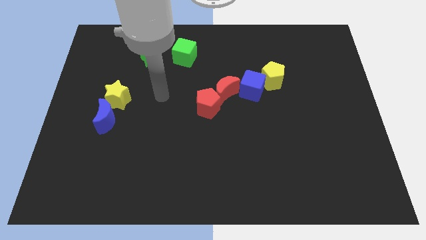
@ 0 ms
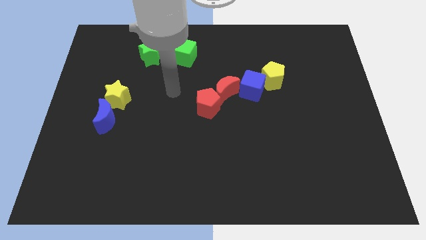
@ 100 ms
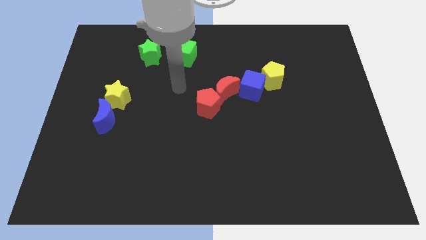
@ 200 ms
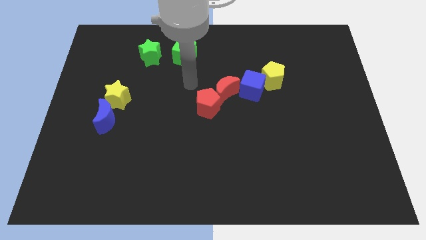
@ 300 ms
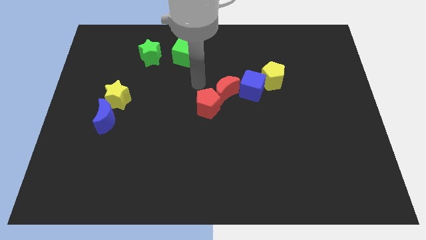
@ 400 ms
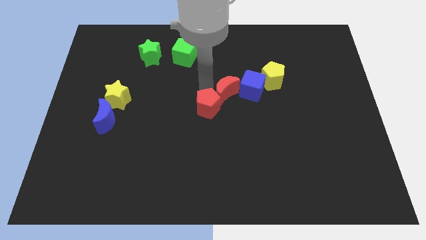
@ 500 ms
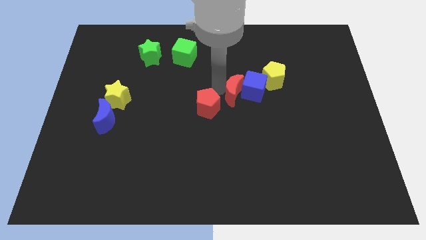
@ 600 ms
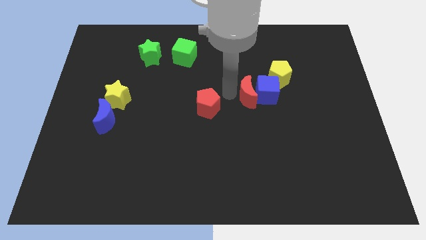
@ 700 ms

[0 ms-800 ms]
pull the red pentagon apart from the red moon

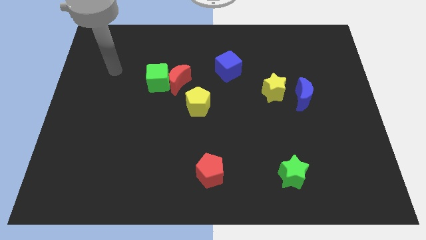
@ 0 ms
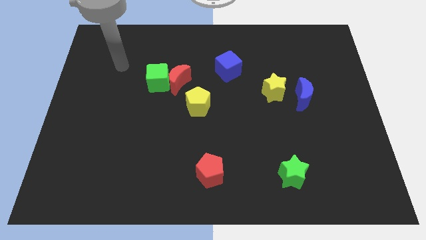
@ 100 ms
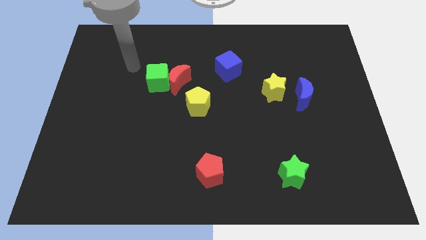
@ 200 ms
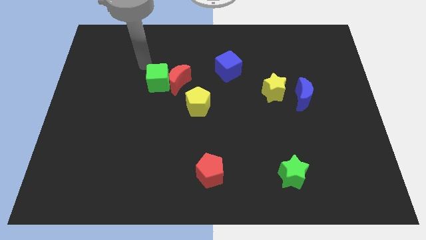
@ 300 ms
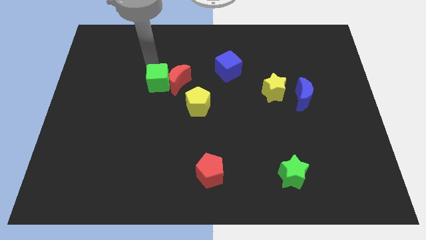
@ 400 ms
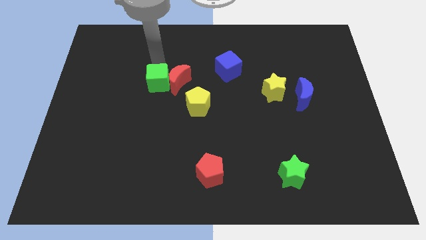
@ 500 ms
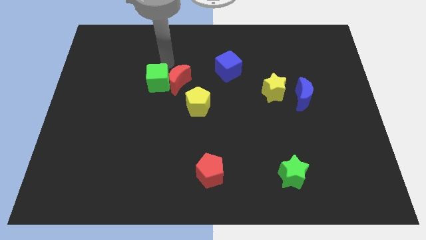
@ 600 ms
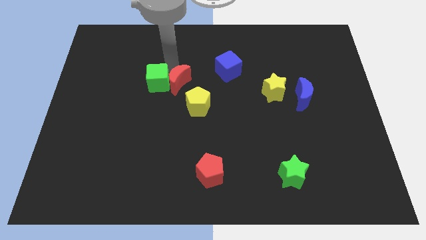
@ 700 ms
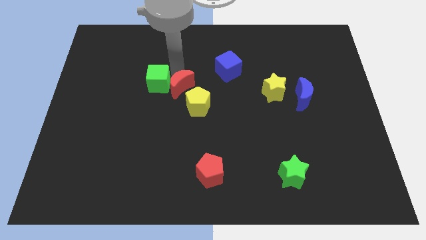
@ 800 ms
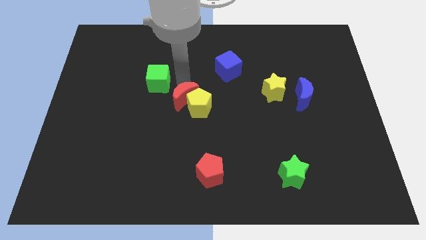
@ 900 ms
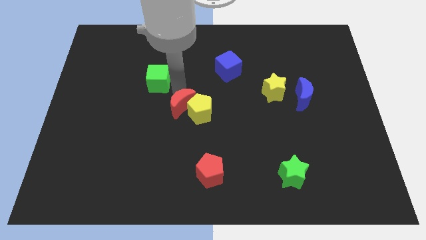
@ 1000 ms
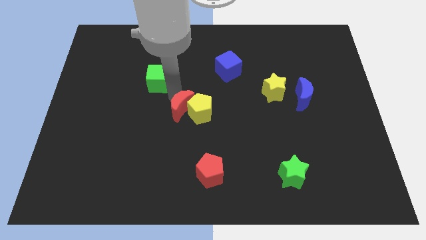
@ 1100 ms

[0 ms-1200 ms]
pull the green cube apart from the red moon

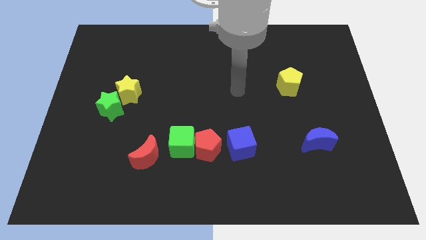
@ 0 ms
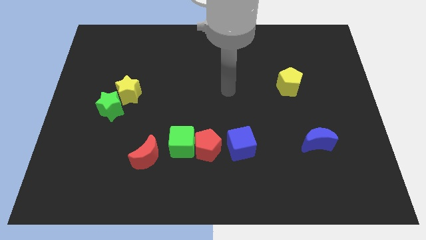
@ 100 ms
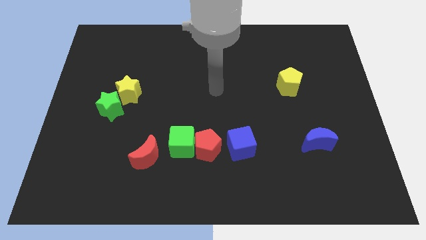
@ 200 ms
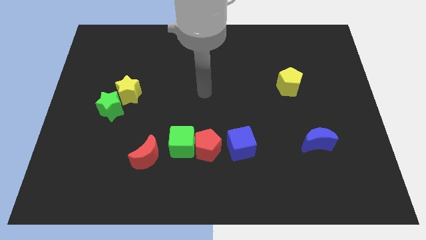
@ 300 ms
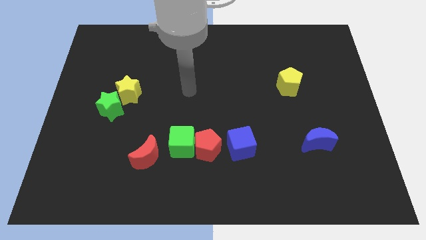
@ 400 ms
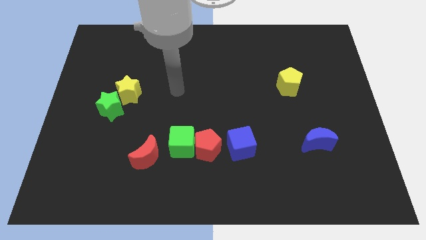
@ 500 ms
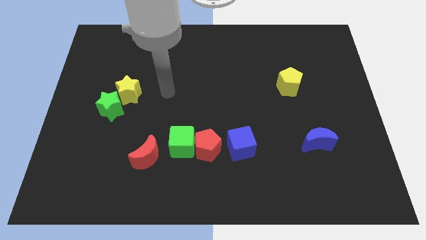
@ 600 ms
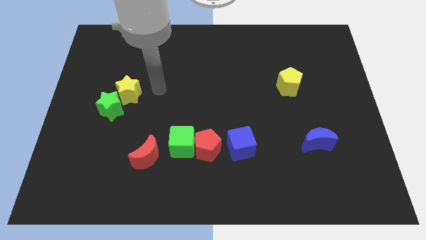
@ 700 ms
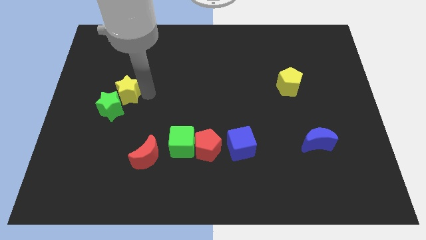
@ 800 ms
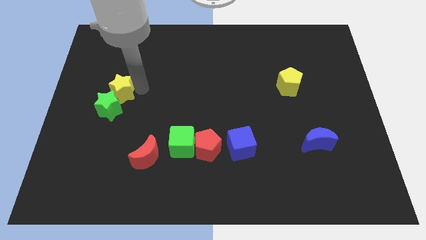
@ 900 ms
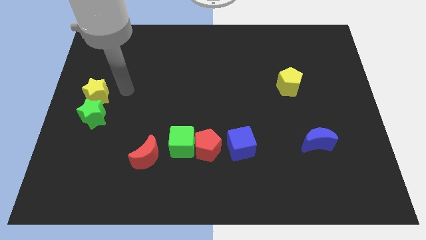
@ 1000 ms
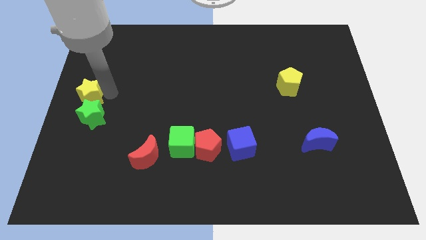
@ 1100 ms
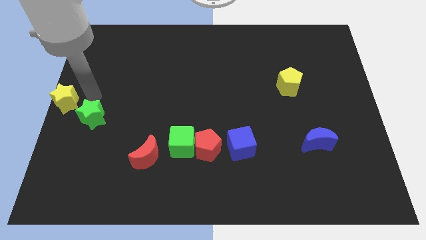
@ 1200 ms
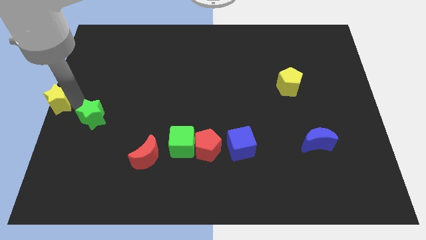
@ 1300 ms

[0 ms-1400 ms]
separate the green star from the yellow star

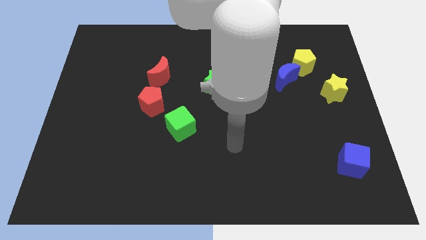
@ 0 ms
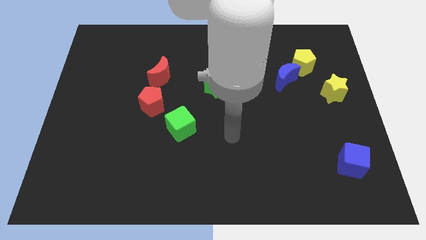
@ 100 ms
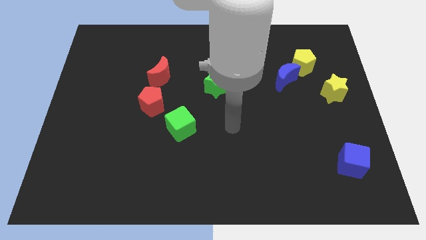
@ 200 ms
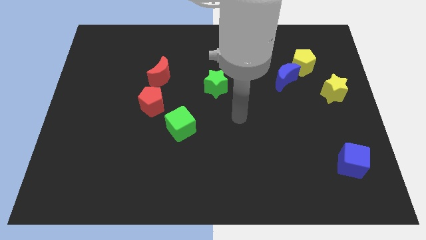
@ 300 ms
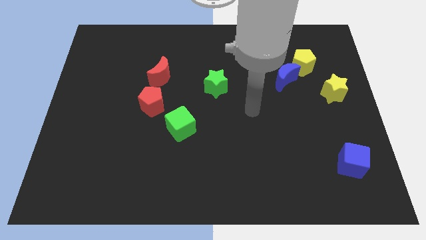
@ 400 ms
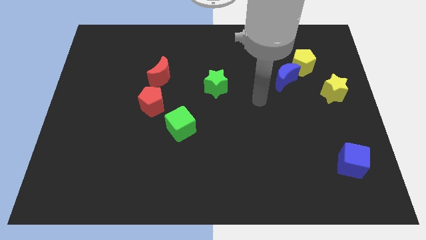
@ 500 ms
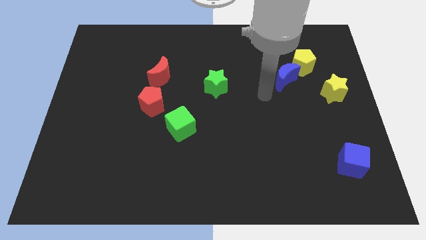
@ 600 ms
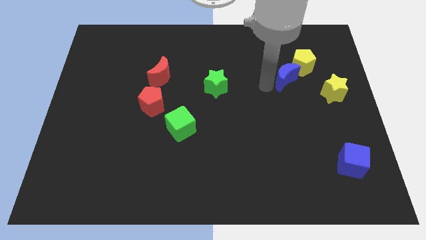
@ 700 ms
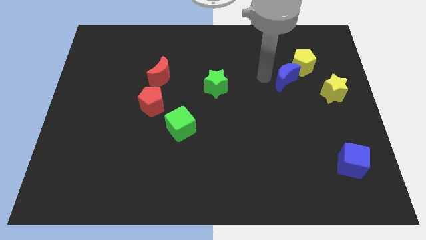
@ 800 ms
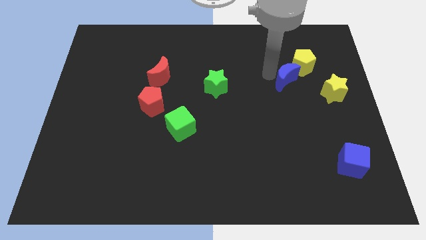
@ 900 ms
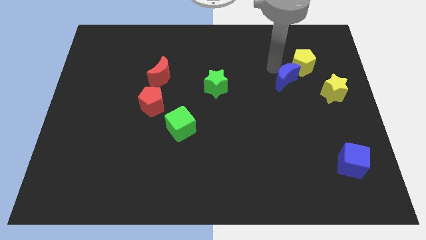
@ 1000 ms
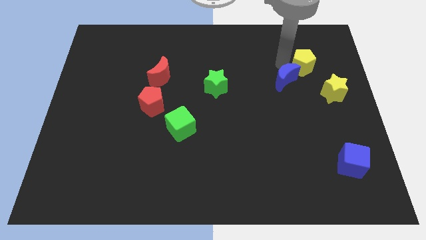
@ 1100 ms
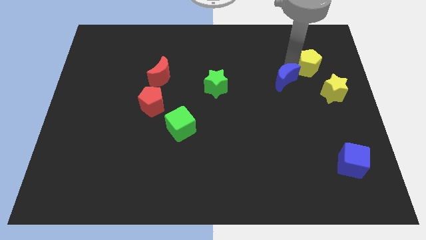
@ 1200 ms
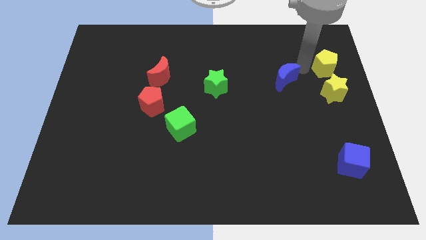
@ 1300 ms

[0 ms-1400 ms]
separate the blue moon from the yellow pentagon

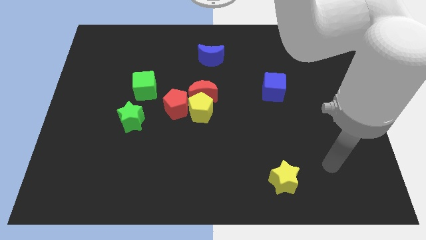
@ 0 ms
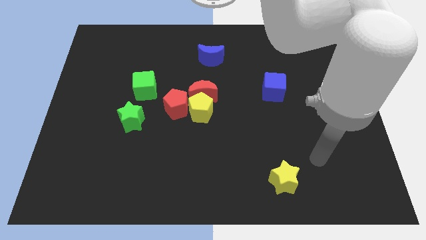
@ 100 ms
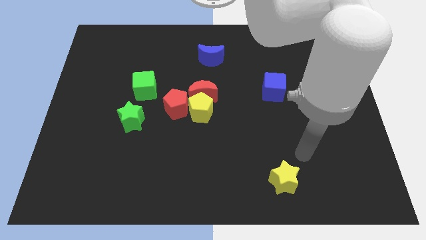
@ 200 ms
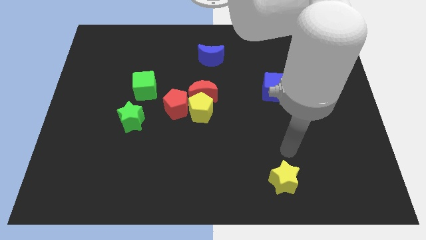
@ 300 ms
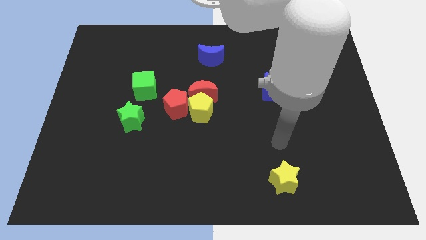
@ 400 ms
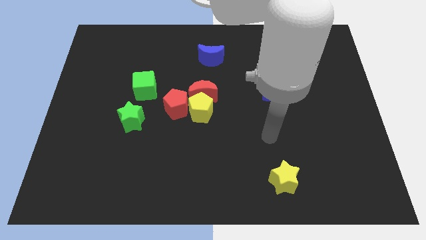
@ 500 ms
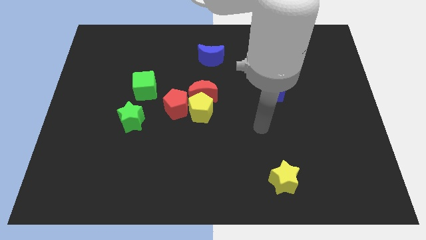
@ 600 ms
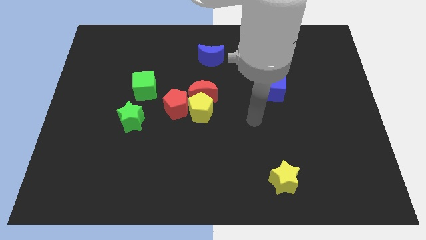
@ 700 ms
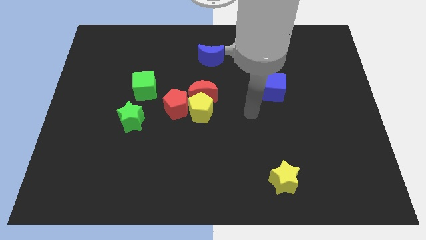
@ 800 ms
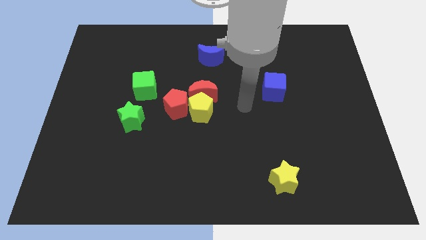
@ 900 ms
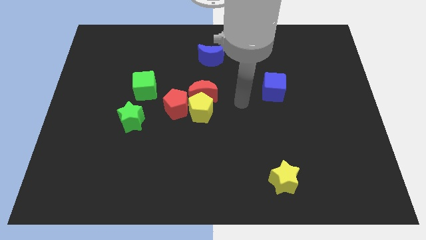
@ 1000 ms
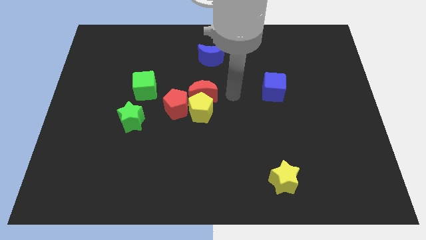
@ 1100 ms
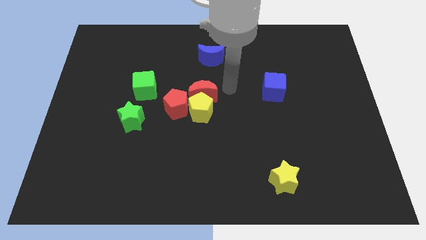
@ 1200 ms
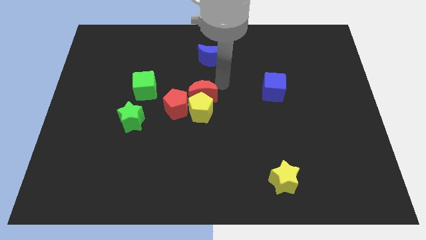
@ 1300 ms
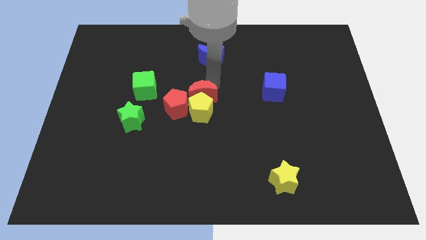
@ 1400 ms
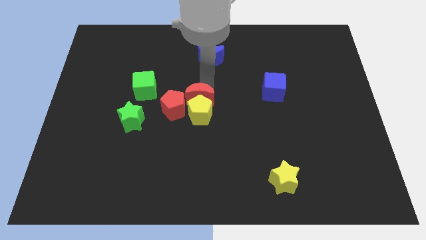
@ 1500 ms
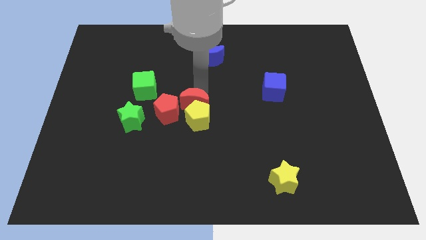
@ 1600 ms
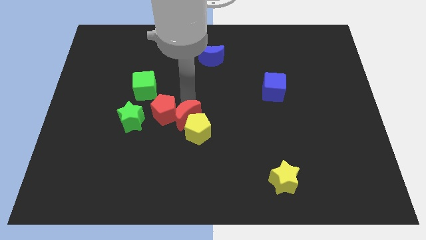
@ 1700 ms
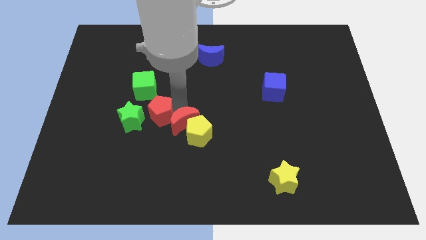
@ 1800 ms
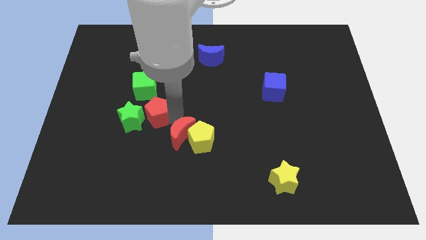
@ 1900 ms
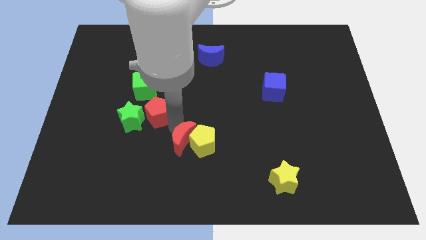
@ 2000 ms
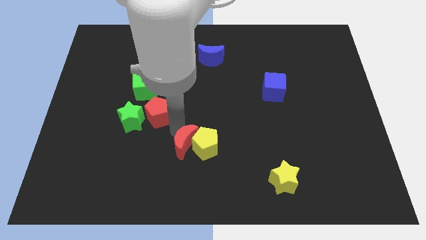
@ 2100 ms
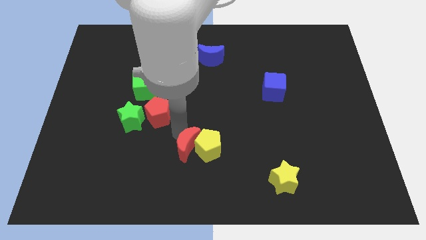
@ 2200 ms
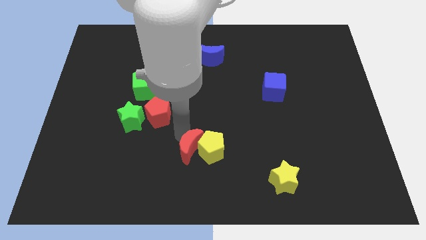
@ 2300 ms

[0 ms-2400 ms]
pull the yellow pentagon apart from the red moon and red pentagon

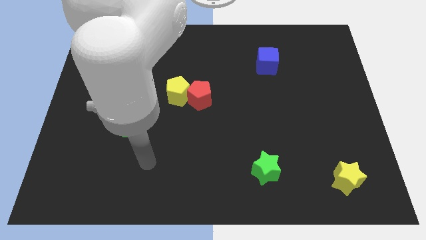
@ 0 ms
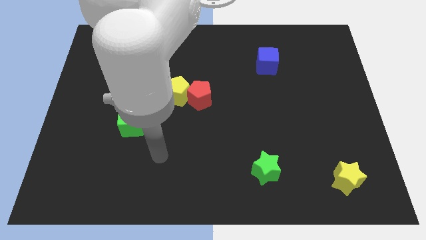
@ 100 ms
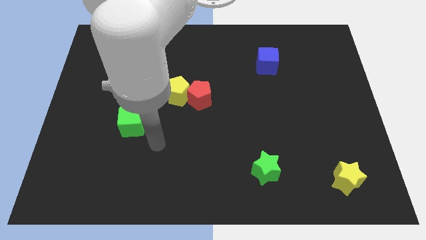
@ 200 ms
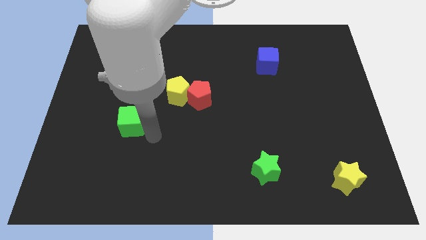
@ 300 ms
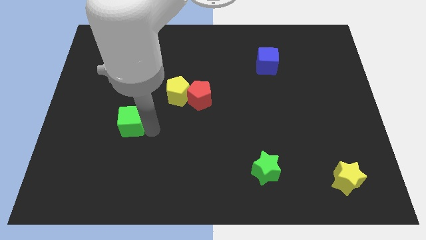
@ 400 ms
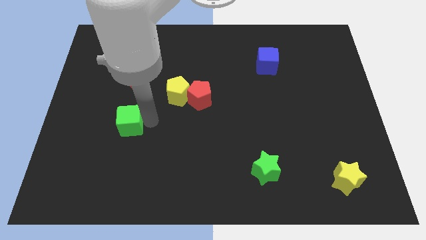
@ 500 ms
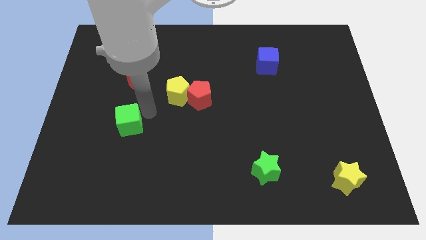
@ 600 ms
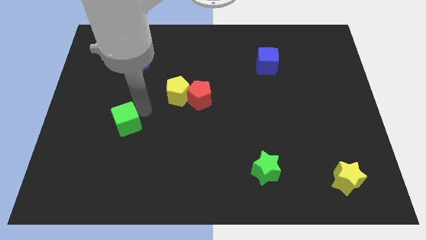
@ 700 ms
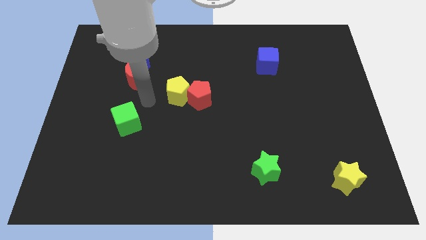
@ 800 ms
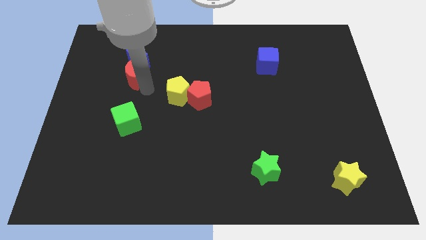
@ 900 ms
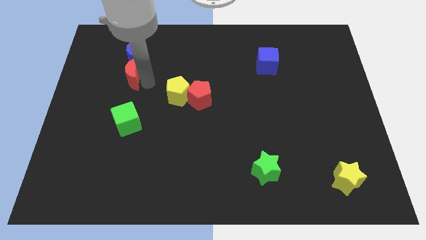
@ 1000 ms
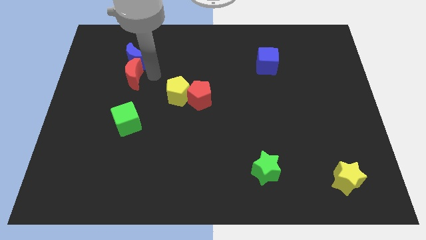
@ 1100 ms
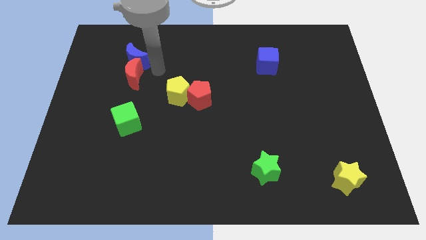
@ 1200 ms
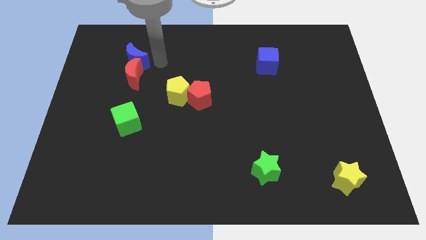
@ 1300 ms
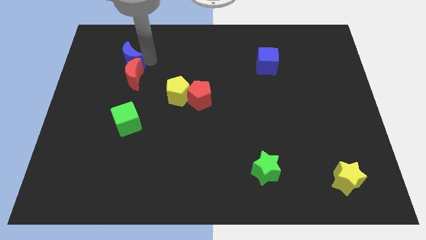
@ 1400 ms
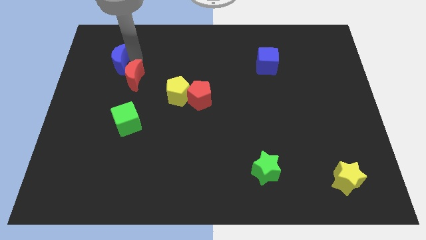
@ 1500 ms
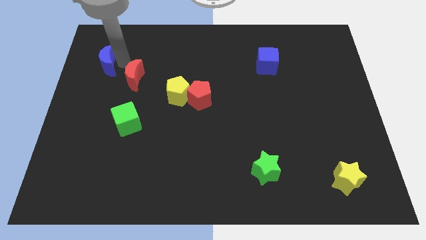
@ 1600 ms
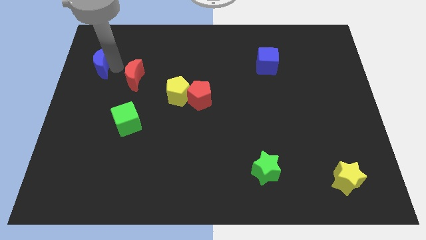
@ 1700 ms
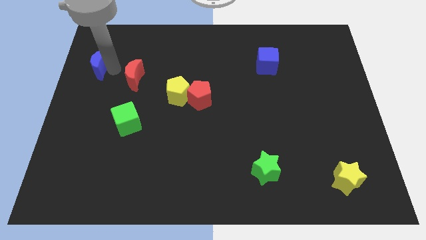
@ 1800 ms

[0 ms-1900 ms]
separate the red moon from the blue moon

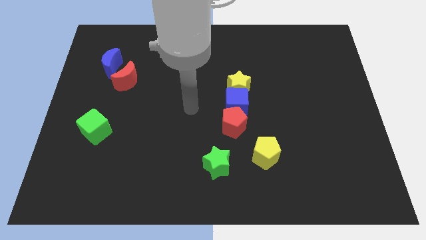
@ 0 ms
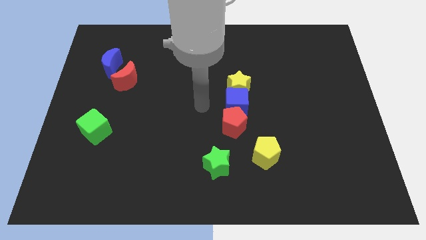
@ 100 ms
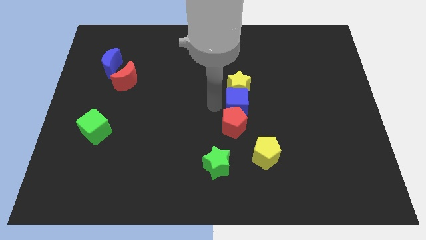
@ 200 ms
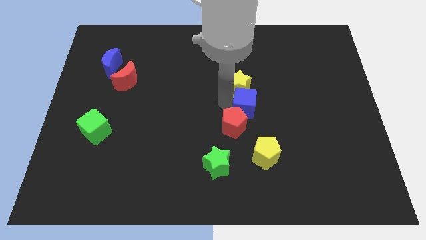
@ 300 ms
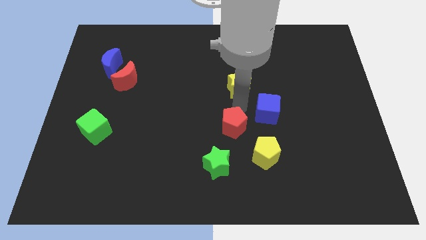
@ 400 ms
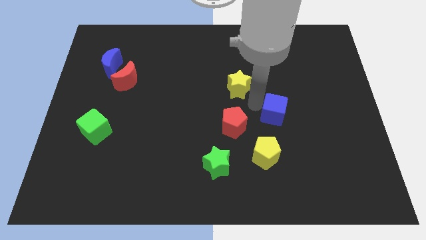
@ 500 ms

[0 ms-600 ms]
move the yellow star away from the blue cube
